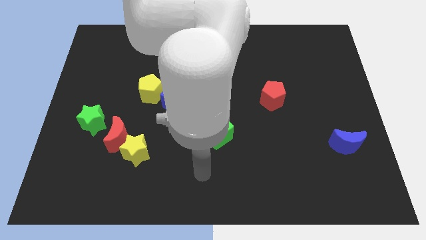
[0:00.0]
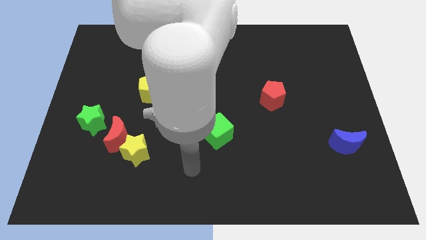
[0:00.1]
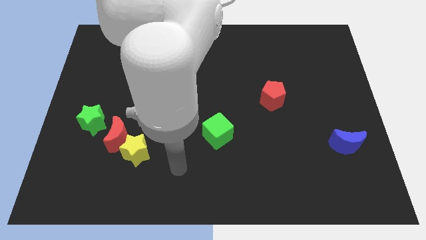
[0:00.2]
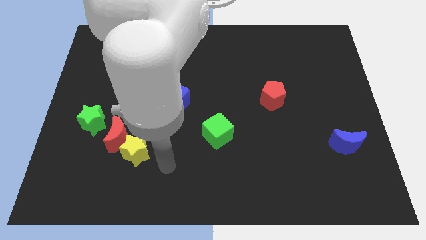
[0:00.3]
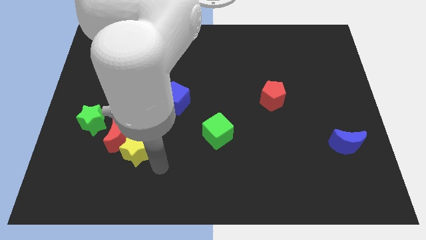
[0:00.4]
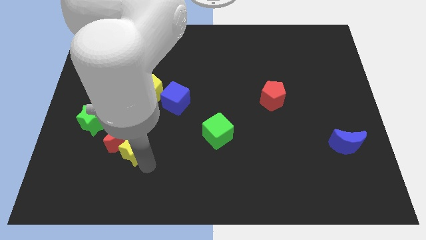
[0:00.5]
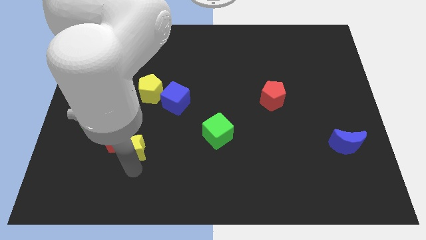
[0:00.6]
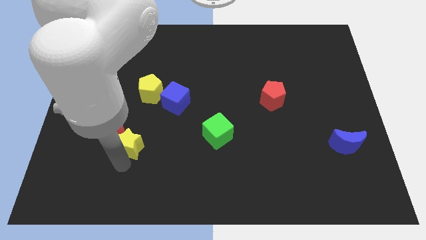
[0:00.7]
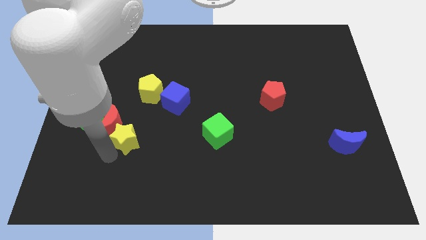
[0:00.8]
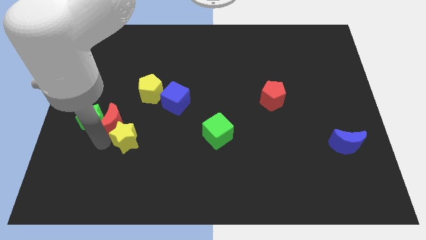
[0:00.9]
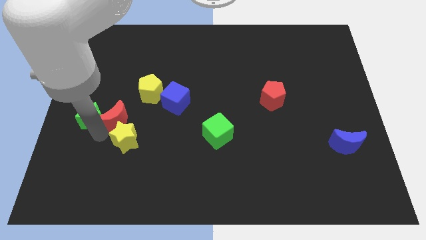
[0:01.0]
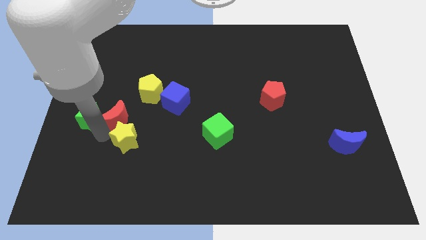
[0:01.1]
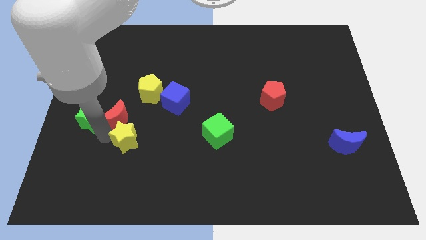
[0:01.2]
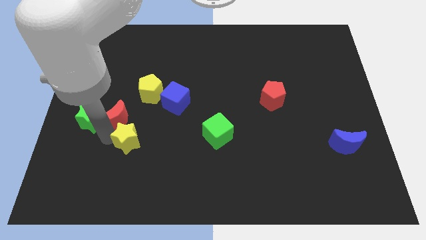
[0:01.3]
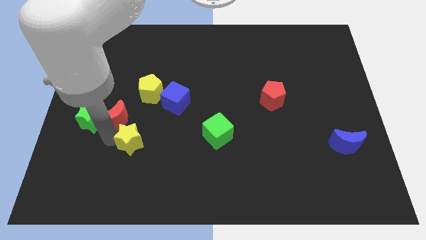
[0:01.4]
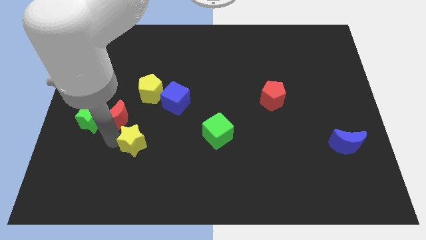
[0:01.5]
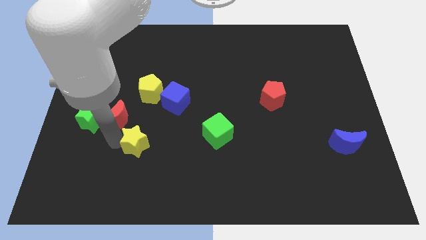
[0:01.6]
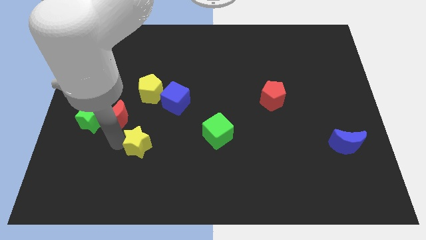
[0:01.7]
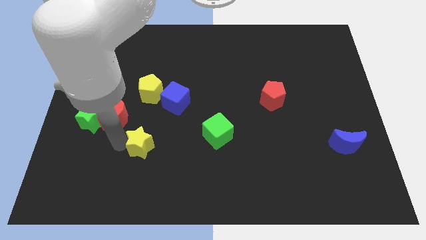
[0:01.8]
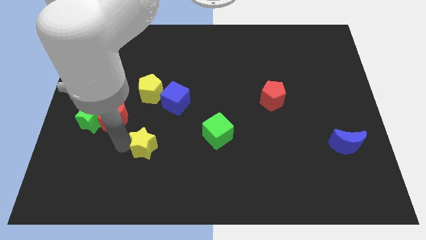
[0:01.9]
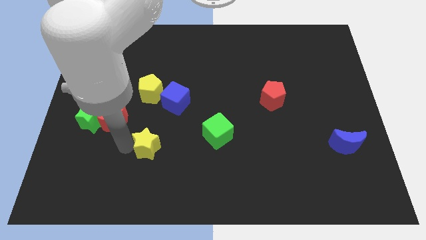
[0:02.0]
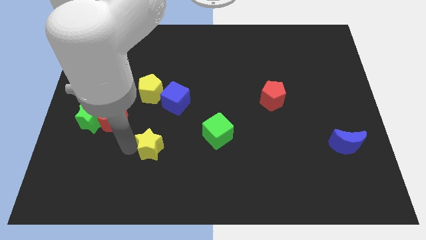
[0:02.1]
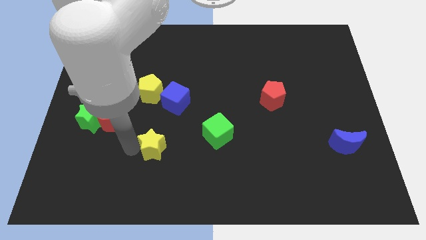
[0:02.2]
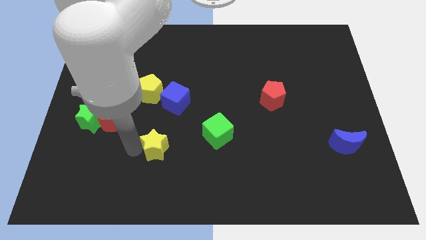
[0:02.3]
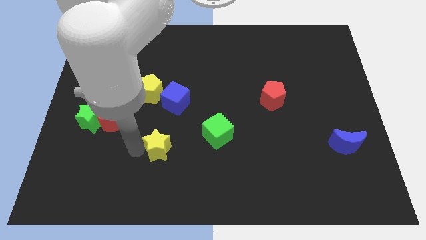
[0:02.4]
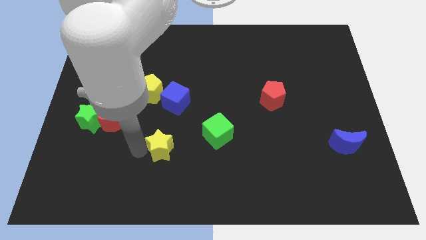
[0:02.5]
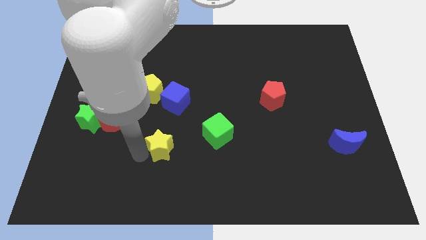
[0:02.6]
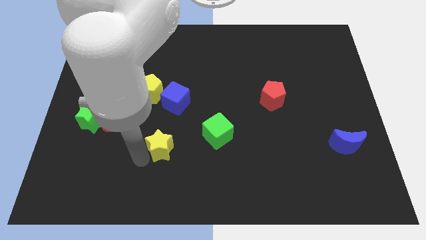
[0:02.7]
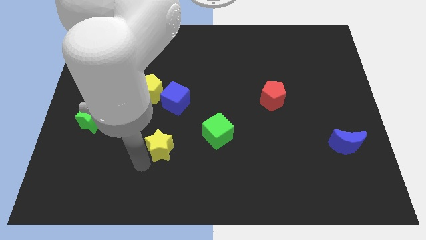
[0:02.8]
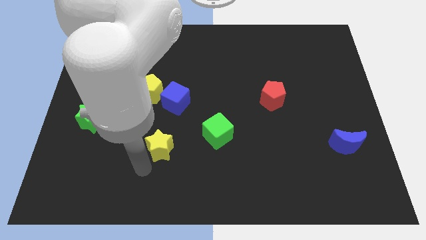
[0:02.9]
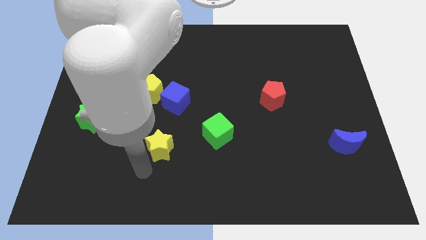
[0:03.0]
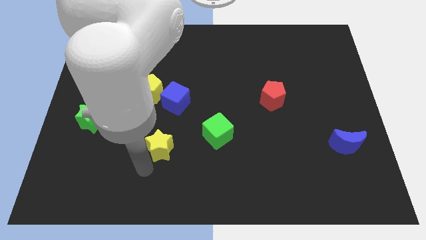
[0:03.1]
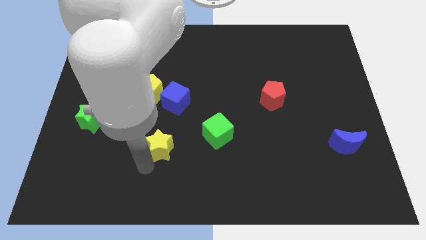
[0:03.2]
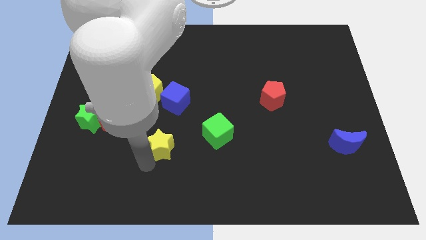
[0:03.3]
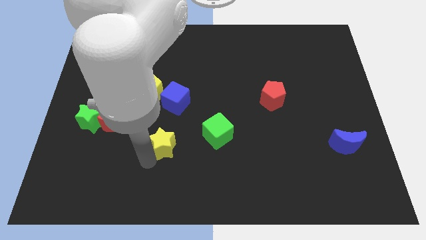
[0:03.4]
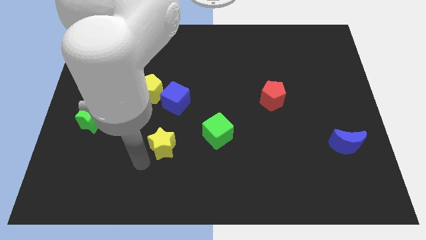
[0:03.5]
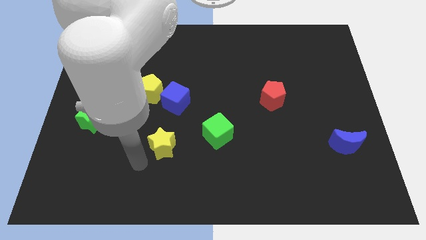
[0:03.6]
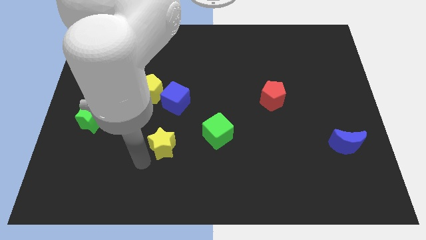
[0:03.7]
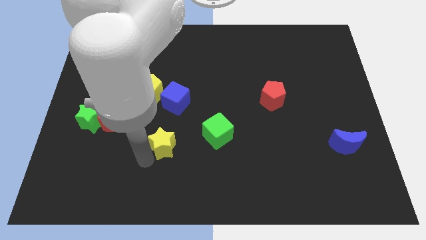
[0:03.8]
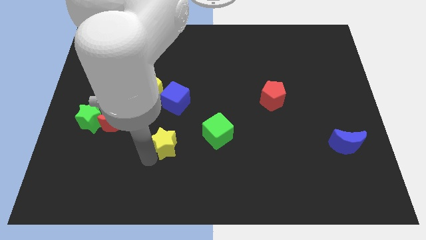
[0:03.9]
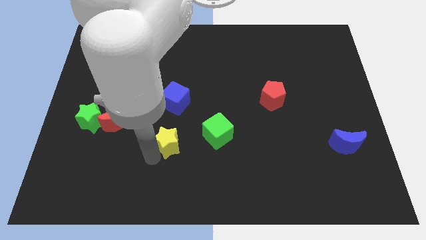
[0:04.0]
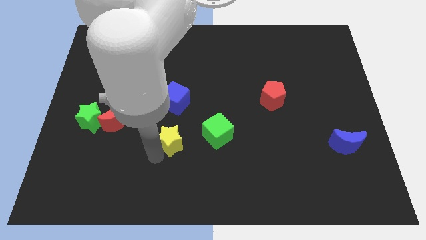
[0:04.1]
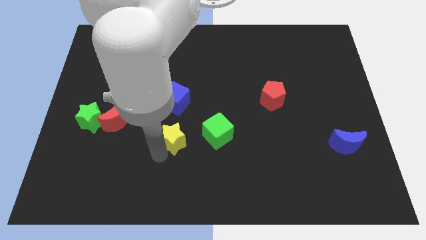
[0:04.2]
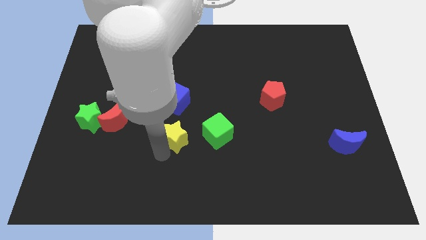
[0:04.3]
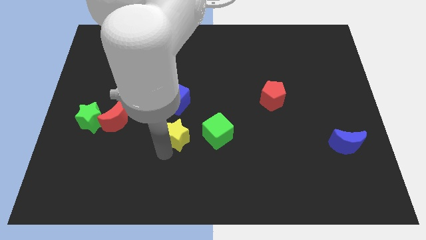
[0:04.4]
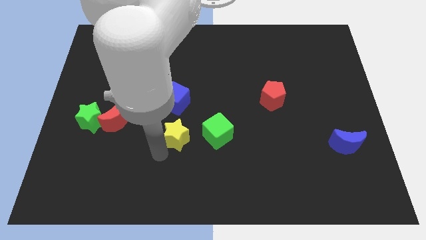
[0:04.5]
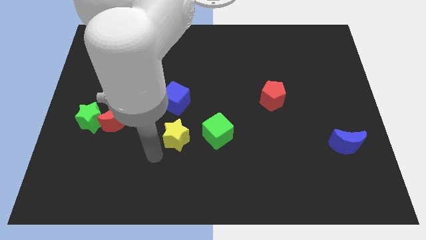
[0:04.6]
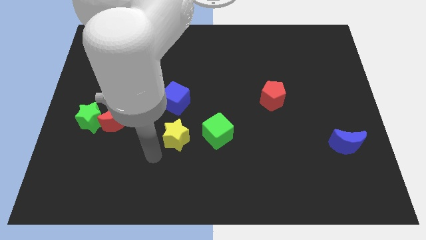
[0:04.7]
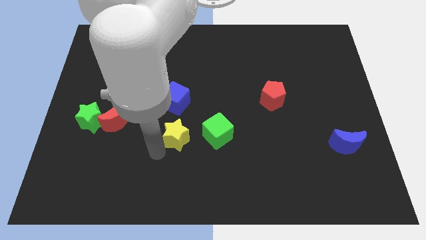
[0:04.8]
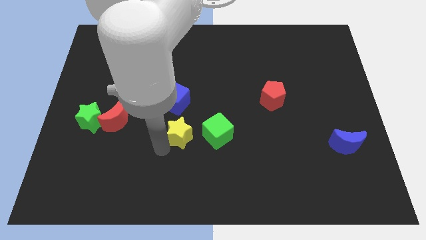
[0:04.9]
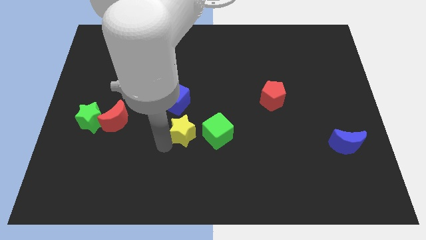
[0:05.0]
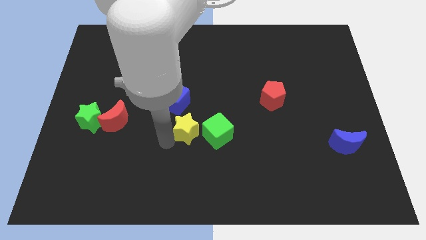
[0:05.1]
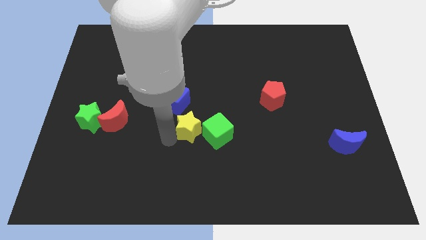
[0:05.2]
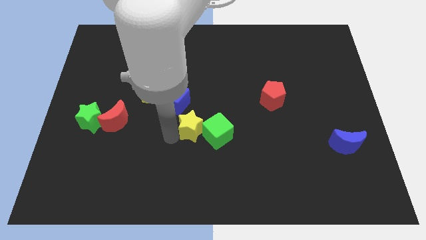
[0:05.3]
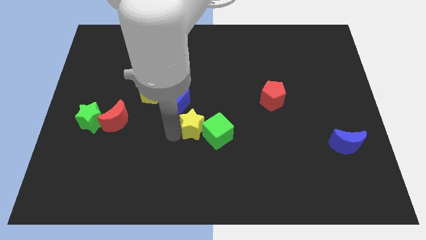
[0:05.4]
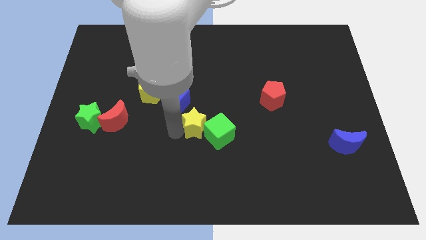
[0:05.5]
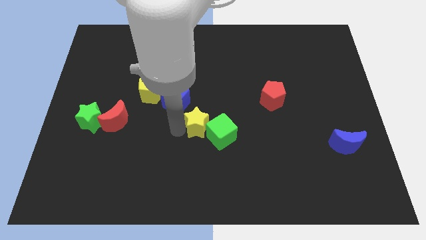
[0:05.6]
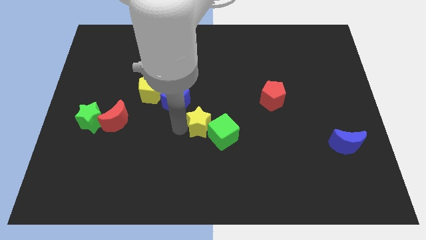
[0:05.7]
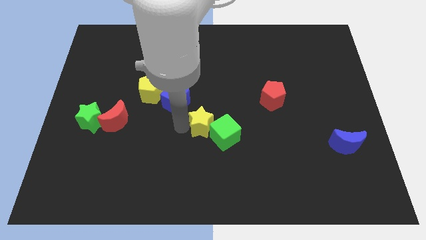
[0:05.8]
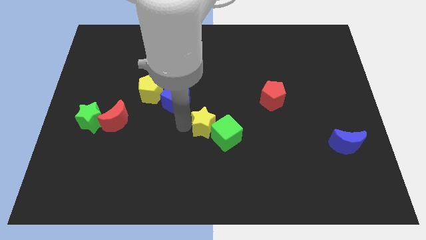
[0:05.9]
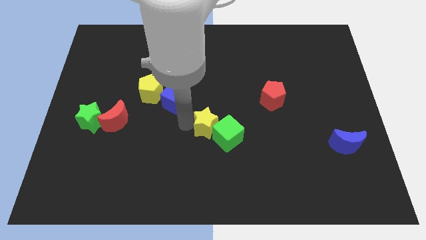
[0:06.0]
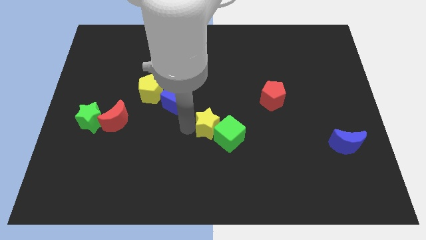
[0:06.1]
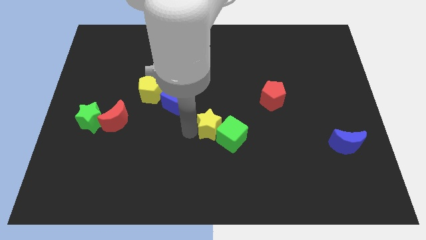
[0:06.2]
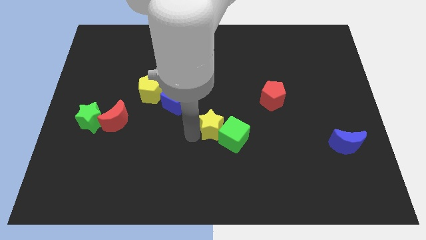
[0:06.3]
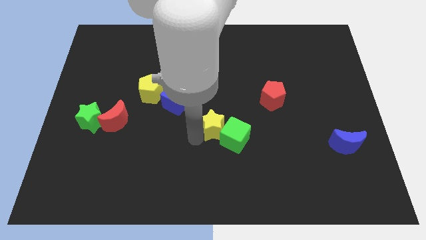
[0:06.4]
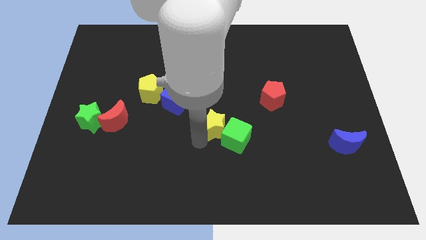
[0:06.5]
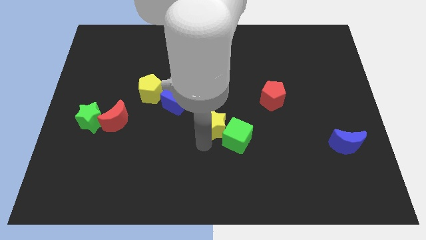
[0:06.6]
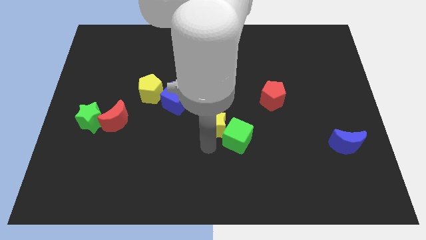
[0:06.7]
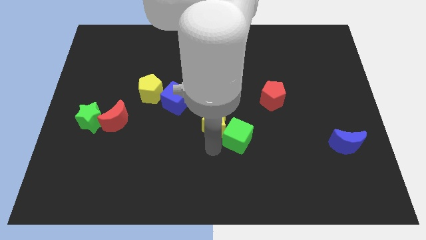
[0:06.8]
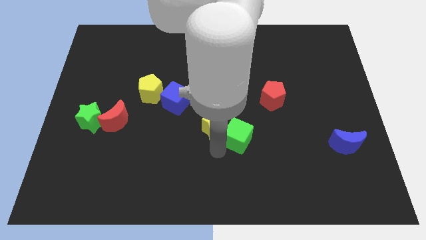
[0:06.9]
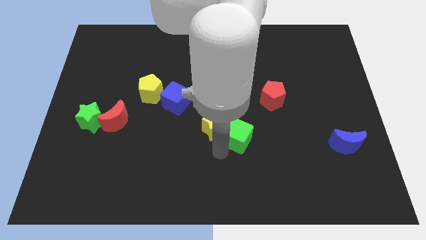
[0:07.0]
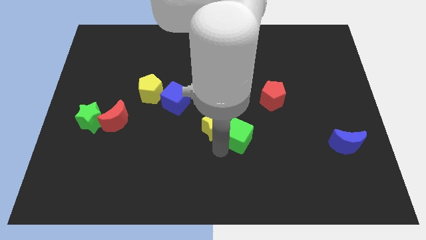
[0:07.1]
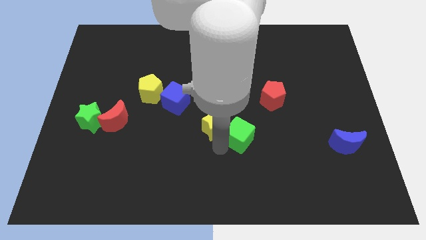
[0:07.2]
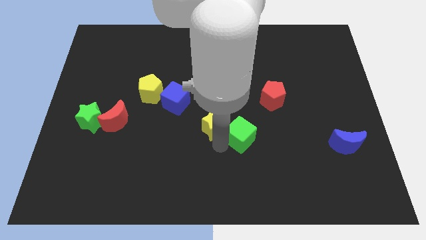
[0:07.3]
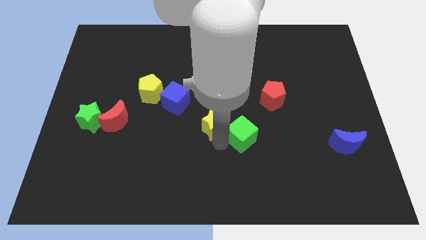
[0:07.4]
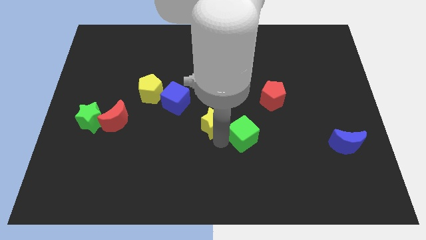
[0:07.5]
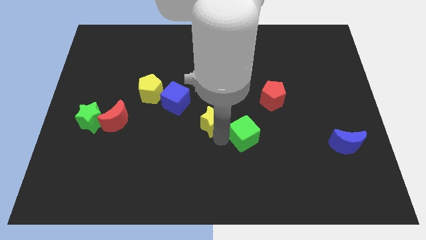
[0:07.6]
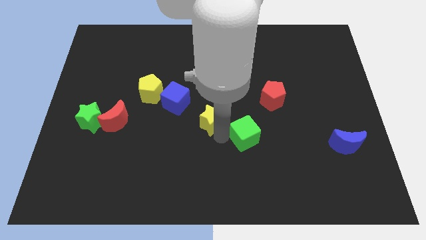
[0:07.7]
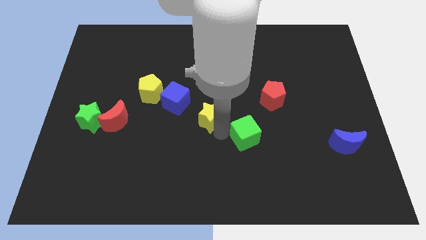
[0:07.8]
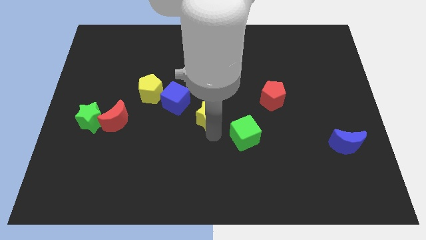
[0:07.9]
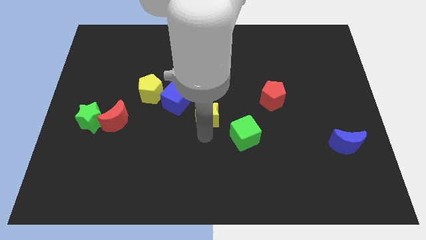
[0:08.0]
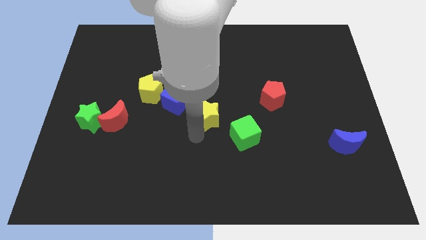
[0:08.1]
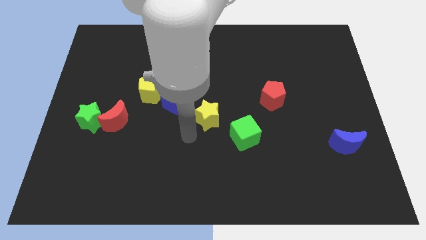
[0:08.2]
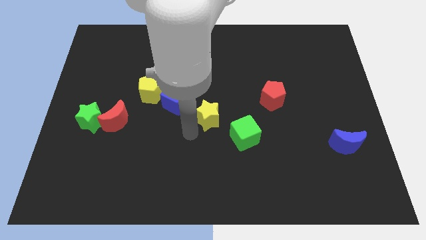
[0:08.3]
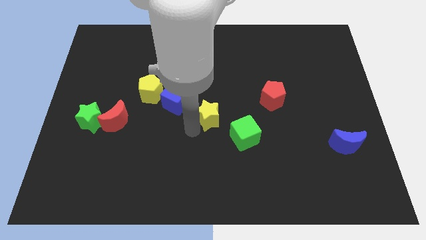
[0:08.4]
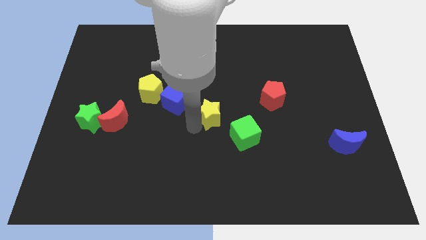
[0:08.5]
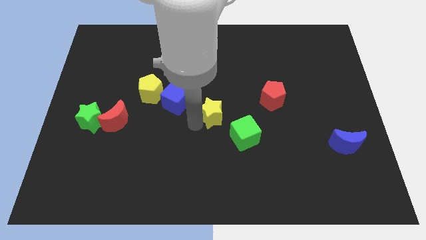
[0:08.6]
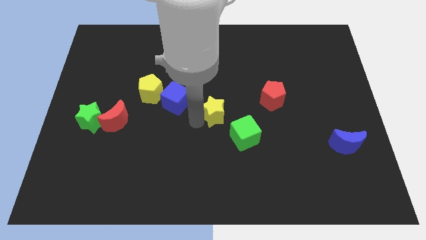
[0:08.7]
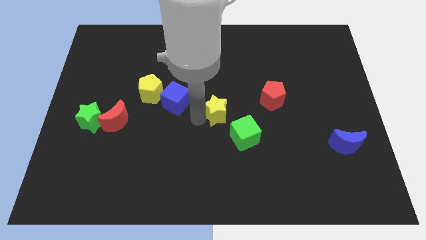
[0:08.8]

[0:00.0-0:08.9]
move the yellow star just left of the red pentagon
